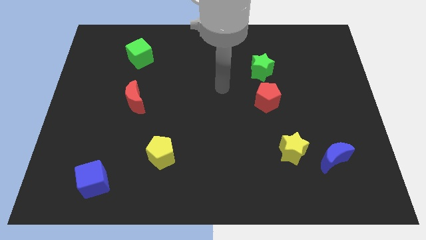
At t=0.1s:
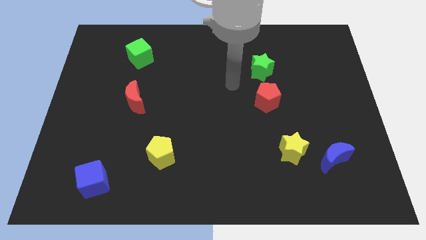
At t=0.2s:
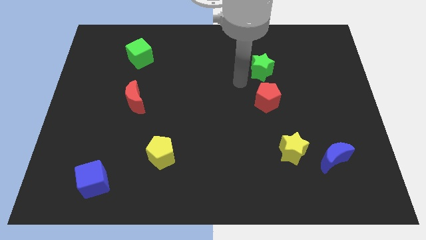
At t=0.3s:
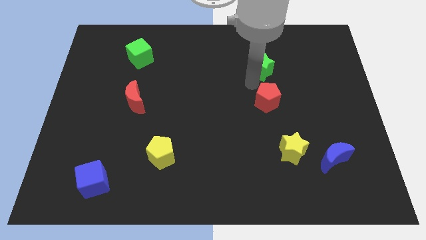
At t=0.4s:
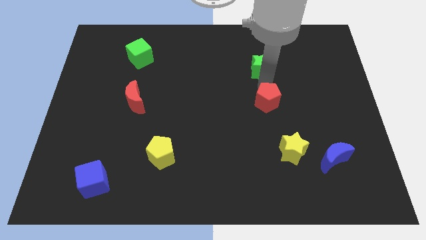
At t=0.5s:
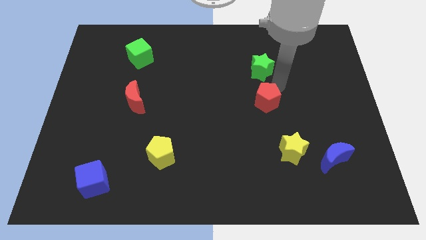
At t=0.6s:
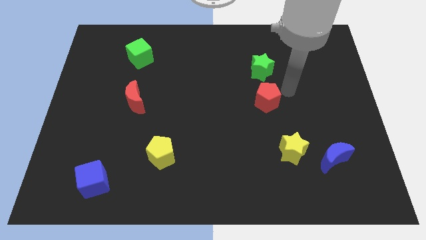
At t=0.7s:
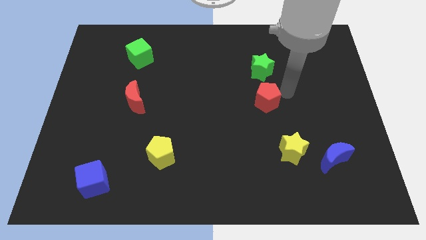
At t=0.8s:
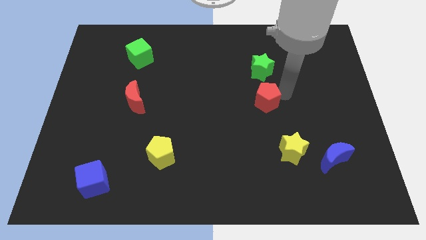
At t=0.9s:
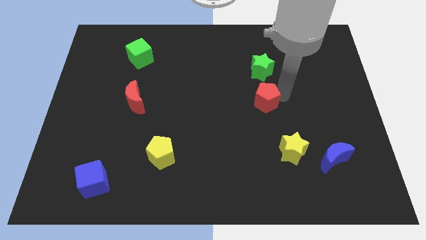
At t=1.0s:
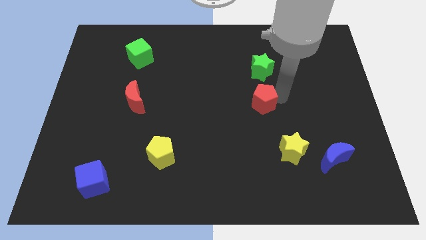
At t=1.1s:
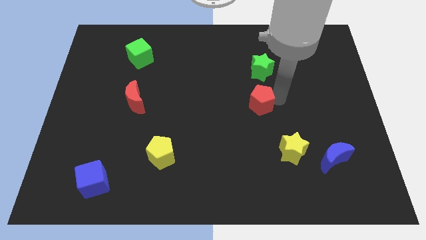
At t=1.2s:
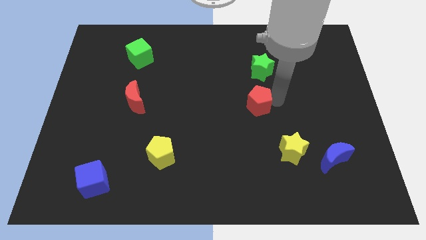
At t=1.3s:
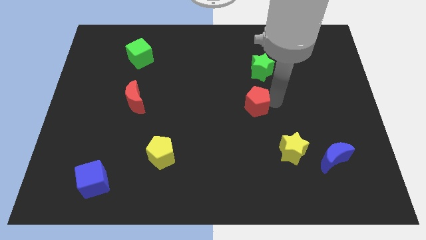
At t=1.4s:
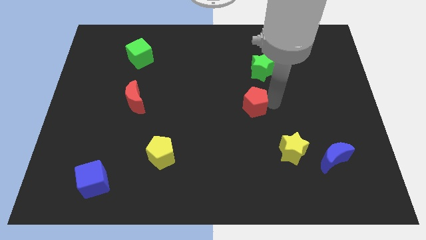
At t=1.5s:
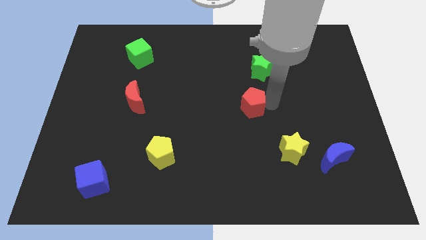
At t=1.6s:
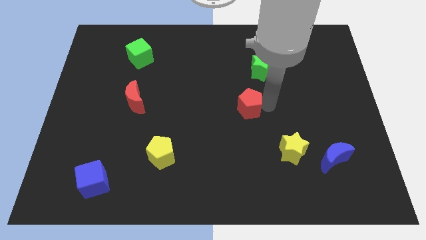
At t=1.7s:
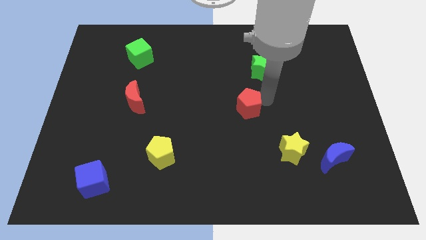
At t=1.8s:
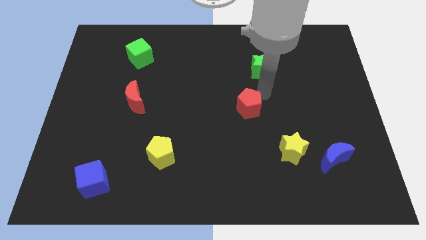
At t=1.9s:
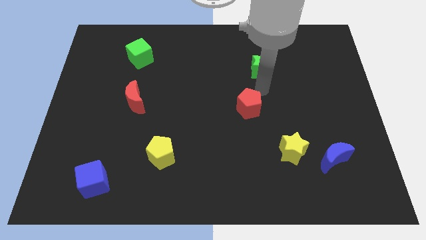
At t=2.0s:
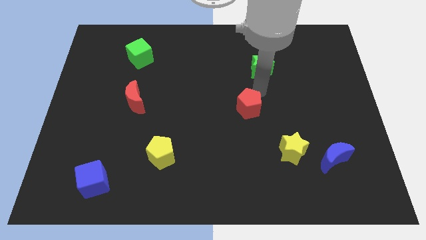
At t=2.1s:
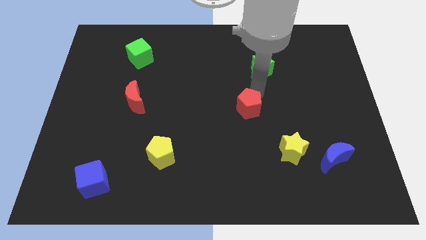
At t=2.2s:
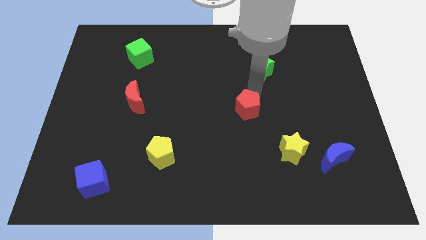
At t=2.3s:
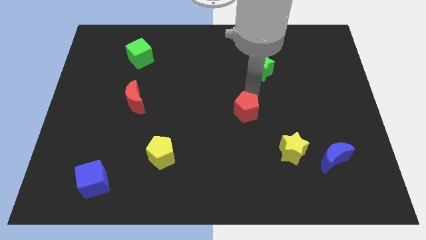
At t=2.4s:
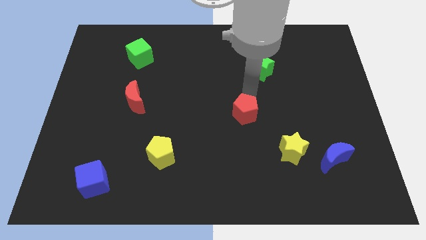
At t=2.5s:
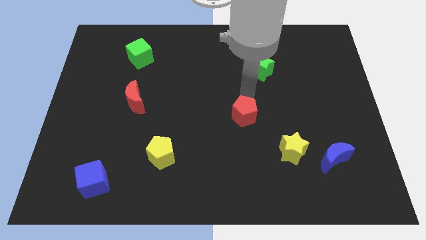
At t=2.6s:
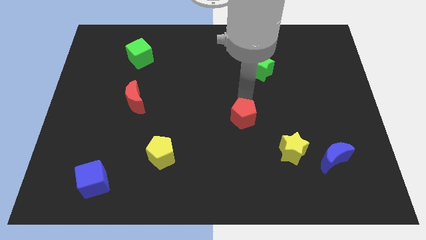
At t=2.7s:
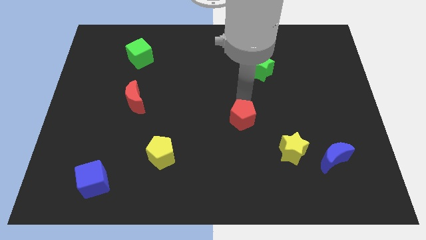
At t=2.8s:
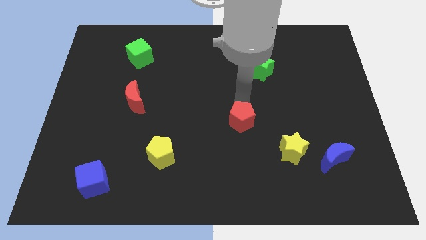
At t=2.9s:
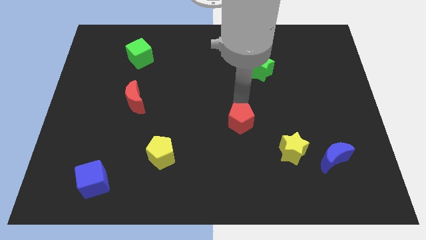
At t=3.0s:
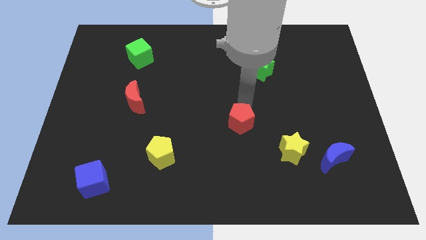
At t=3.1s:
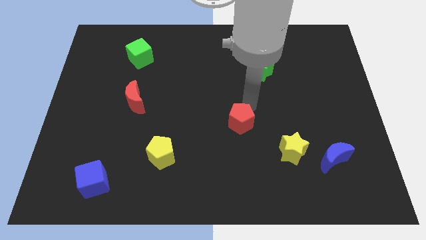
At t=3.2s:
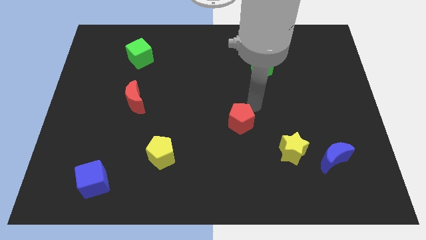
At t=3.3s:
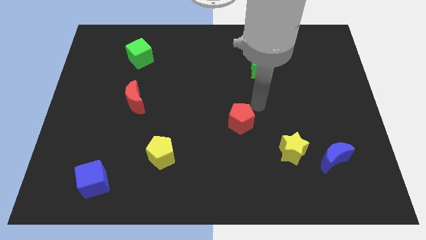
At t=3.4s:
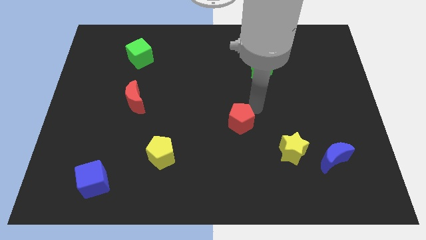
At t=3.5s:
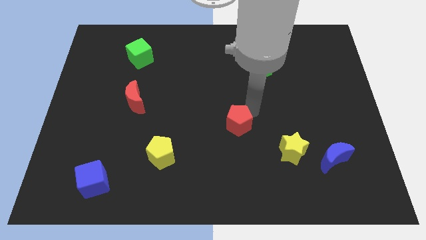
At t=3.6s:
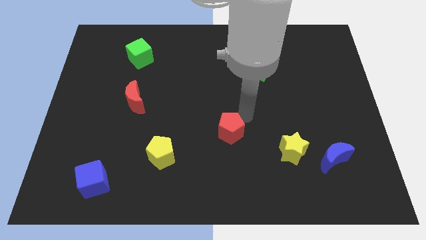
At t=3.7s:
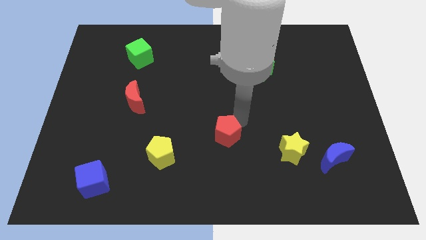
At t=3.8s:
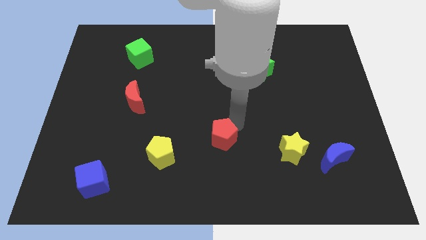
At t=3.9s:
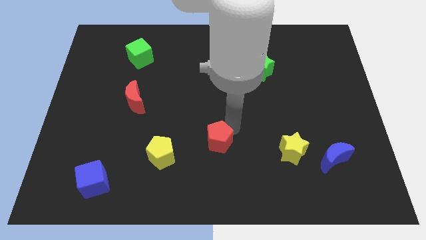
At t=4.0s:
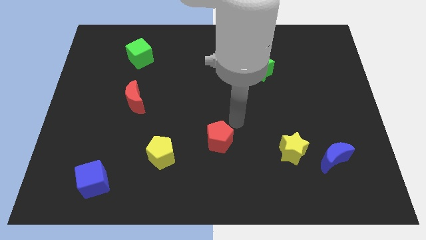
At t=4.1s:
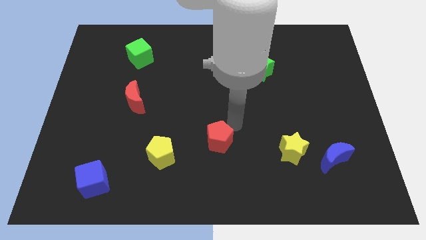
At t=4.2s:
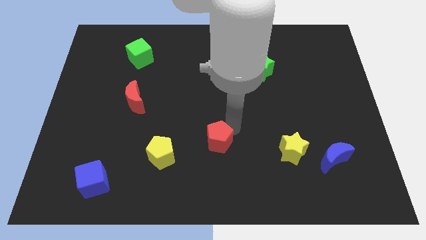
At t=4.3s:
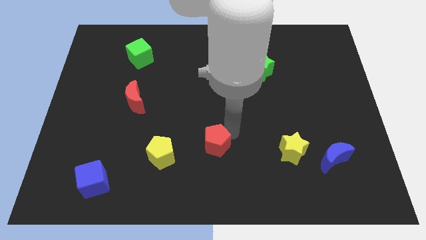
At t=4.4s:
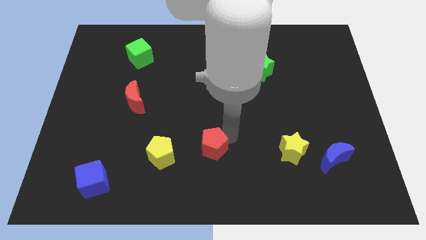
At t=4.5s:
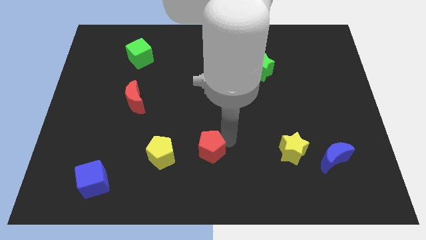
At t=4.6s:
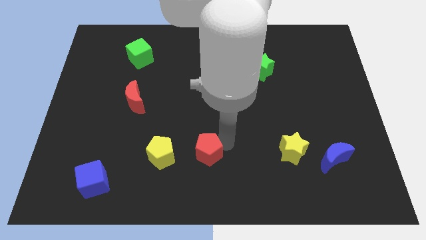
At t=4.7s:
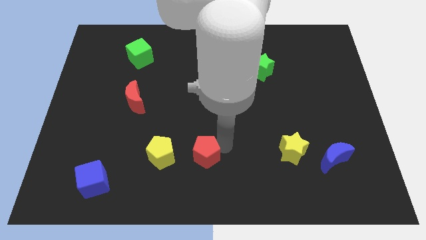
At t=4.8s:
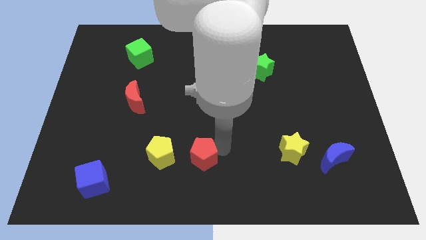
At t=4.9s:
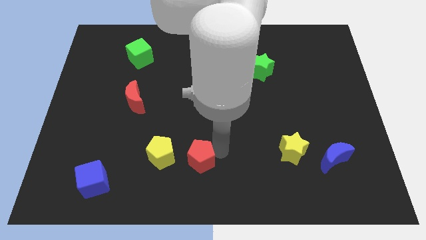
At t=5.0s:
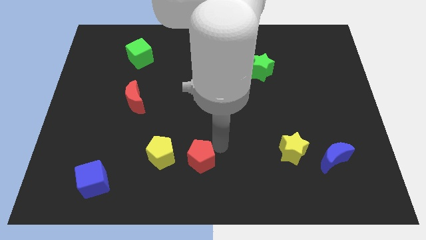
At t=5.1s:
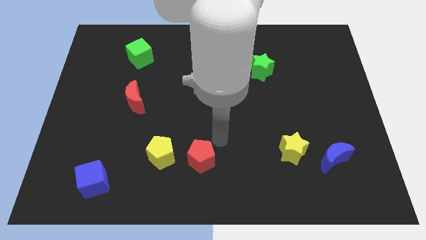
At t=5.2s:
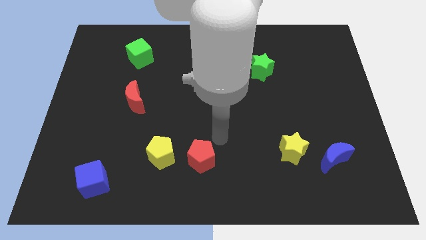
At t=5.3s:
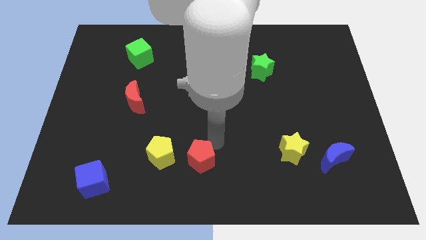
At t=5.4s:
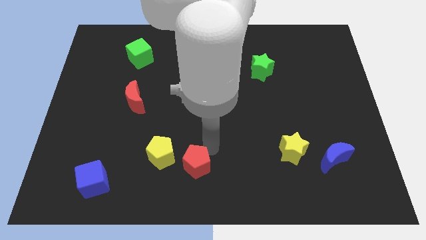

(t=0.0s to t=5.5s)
put the red pentagon diagonally down and to the right of the yellow pentagon

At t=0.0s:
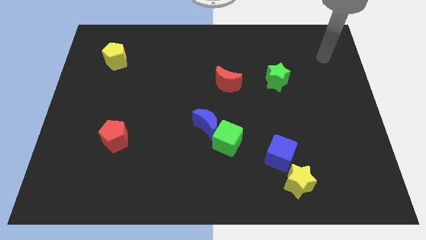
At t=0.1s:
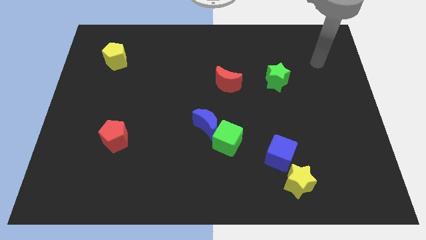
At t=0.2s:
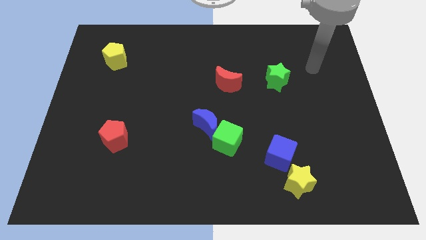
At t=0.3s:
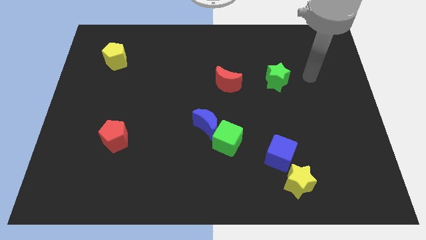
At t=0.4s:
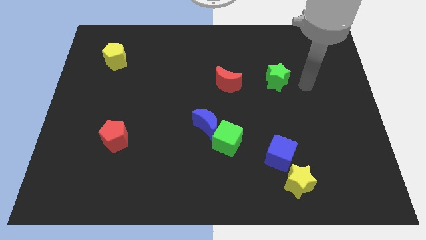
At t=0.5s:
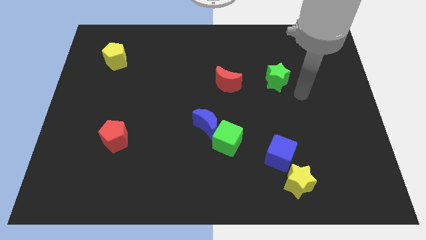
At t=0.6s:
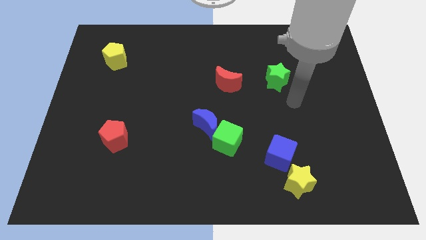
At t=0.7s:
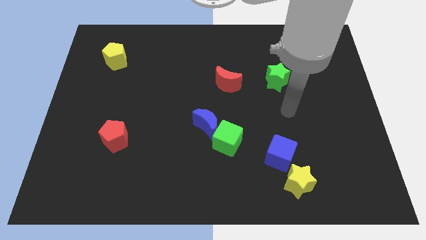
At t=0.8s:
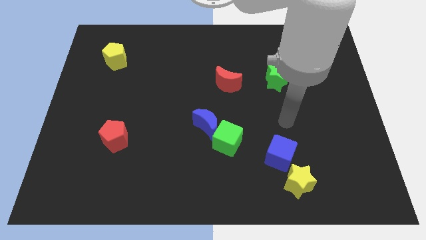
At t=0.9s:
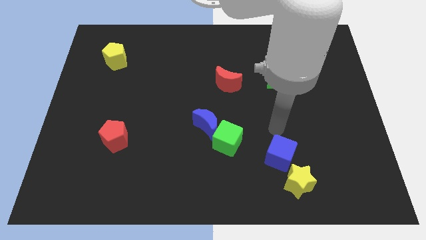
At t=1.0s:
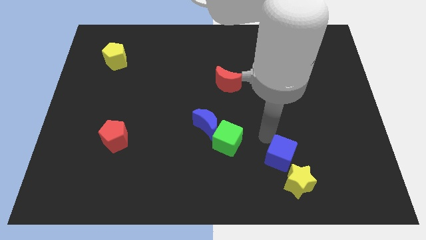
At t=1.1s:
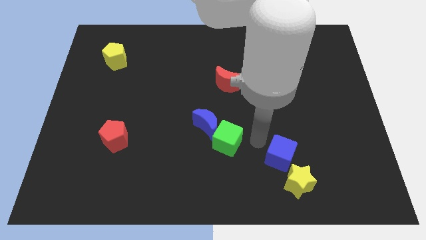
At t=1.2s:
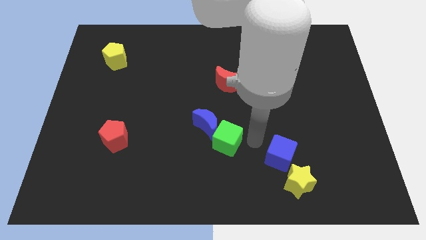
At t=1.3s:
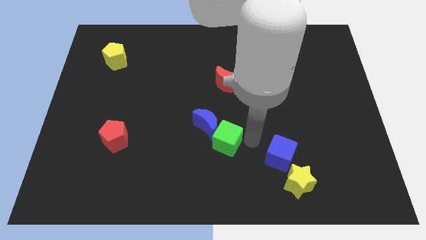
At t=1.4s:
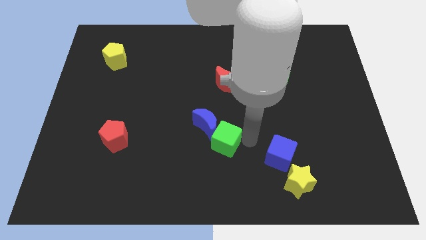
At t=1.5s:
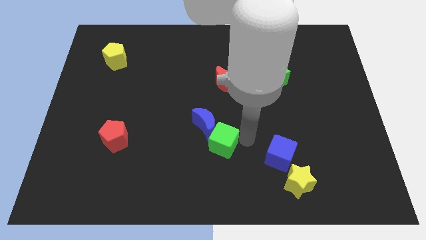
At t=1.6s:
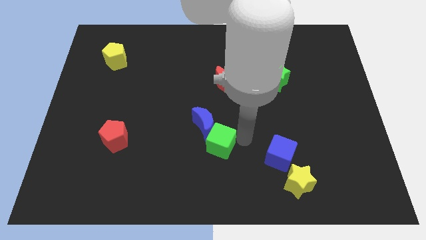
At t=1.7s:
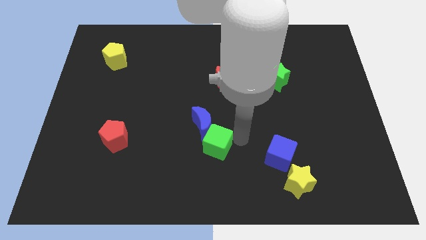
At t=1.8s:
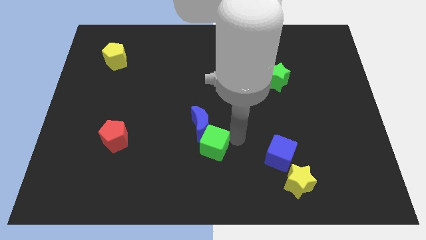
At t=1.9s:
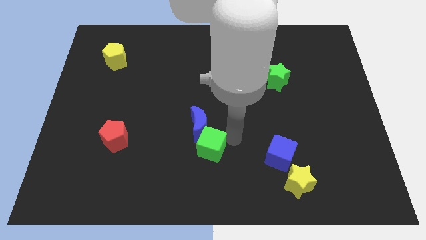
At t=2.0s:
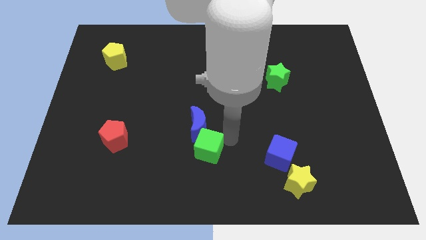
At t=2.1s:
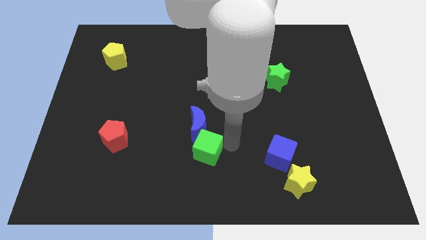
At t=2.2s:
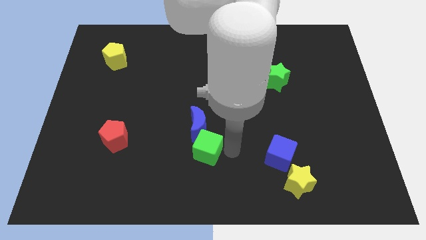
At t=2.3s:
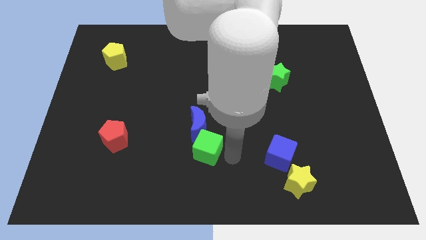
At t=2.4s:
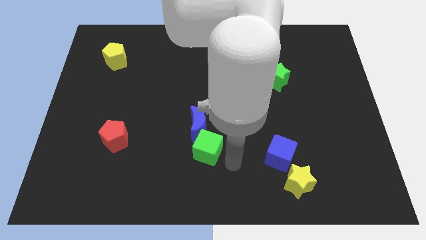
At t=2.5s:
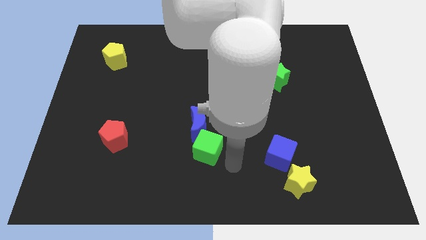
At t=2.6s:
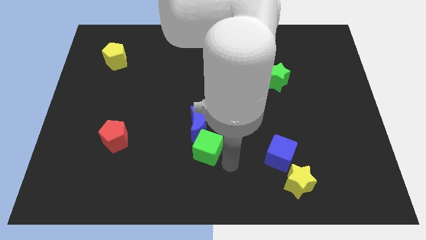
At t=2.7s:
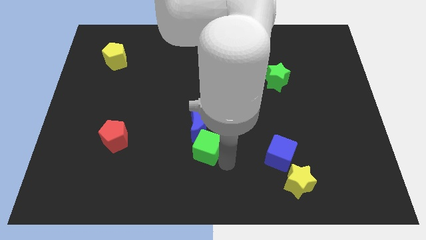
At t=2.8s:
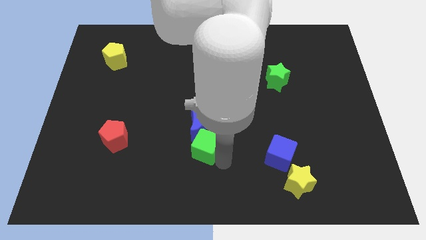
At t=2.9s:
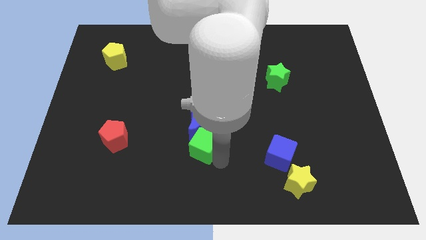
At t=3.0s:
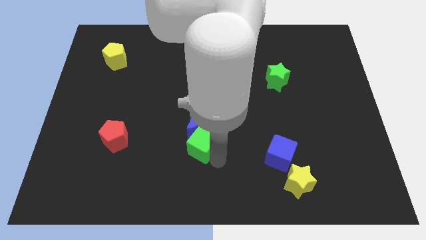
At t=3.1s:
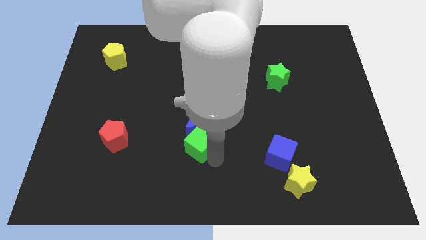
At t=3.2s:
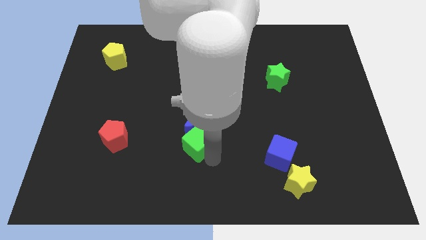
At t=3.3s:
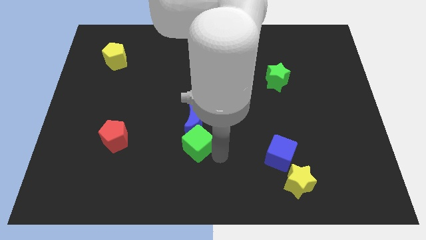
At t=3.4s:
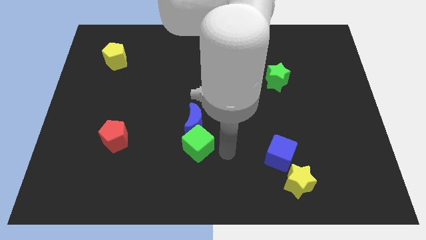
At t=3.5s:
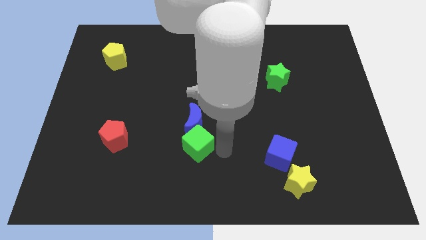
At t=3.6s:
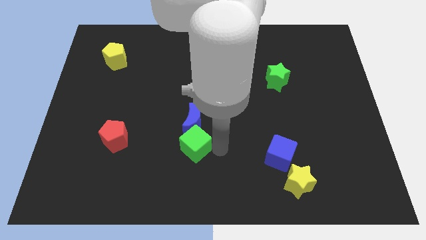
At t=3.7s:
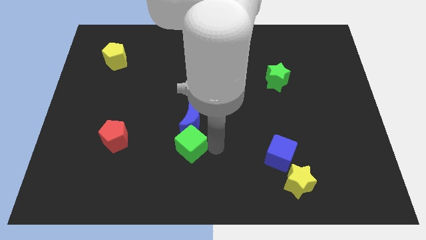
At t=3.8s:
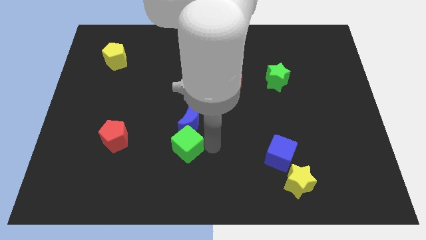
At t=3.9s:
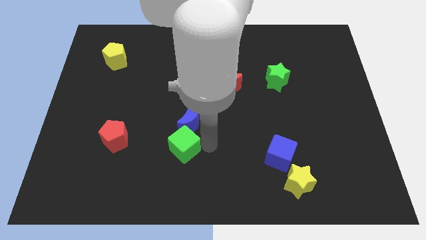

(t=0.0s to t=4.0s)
put the green cube to the right of the red pentagon
